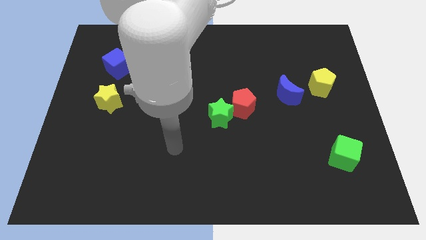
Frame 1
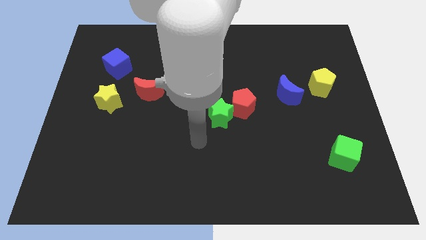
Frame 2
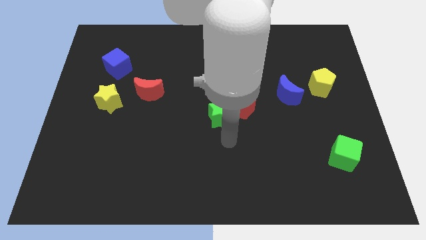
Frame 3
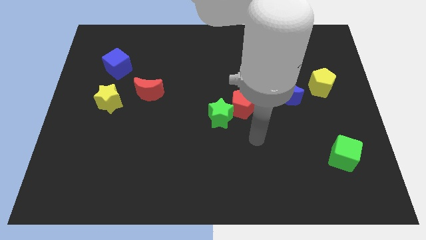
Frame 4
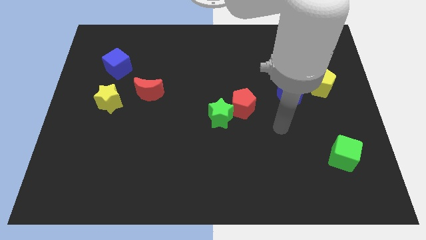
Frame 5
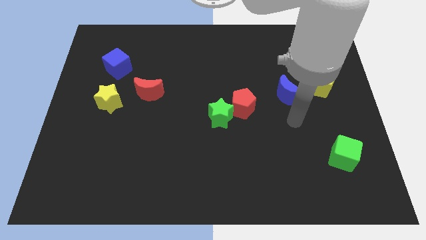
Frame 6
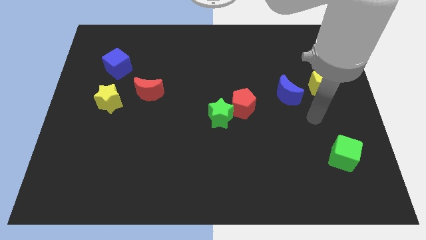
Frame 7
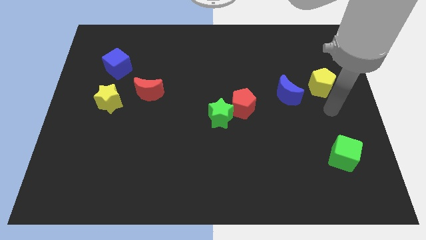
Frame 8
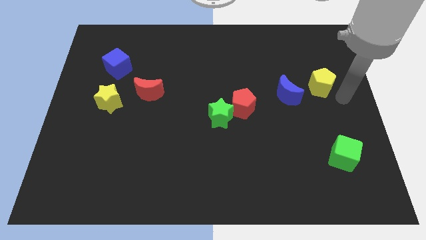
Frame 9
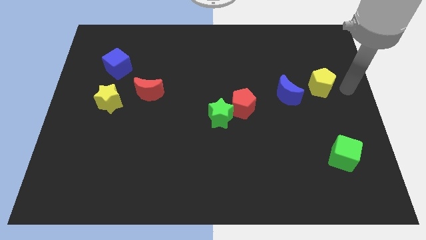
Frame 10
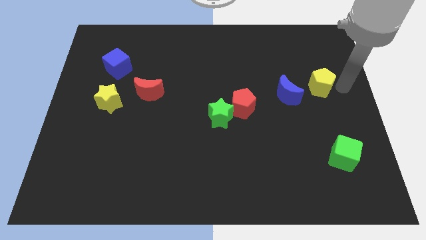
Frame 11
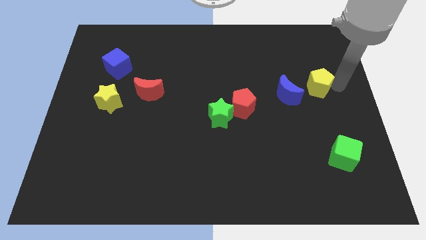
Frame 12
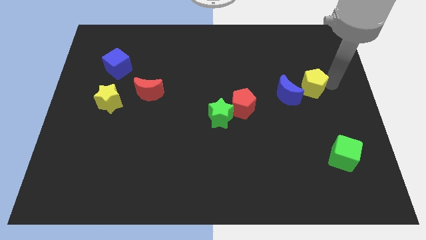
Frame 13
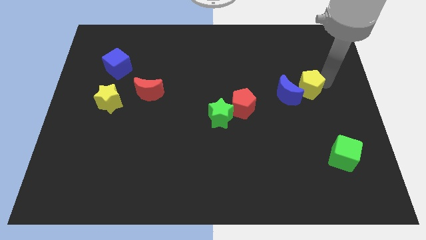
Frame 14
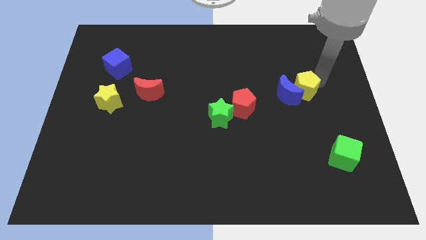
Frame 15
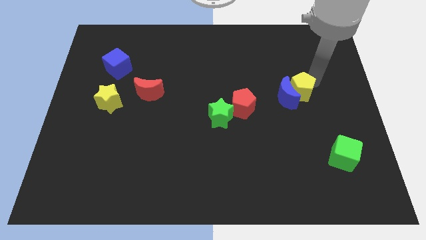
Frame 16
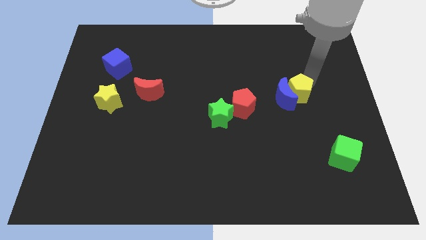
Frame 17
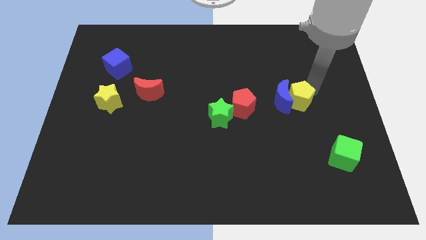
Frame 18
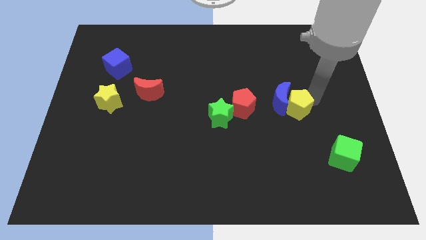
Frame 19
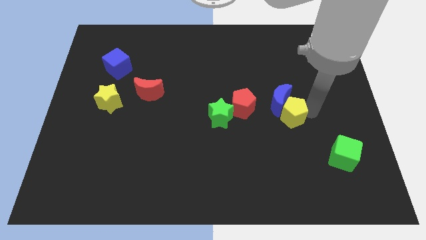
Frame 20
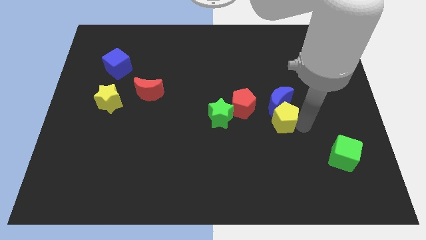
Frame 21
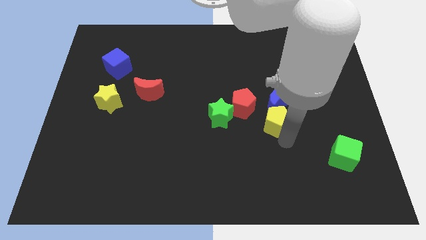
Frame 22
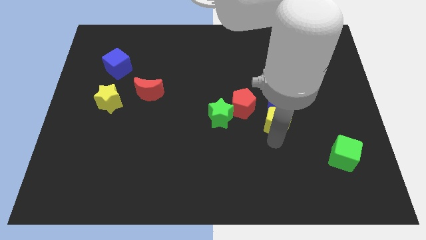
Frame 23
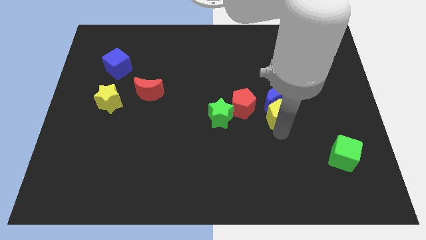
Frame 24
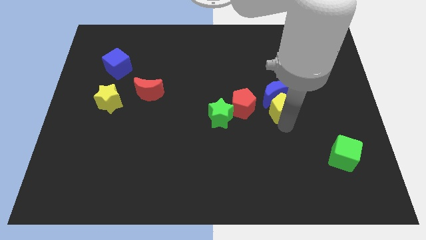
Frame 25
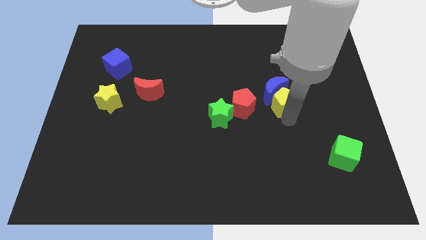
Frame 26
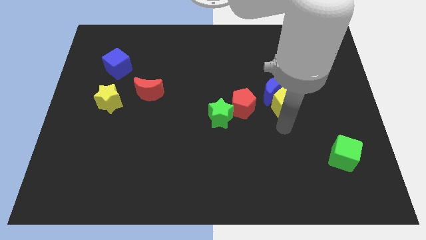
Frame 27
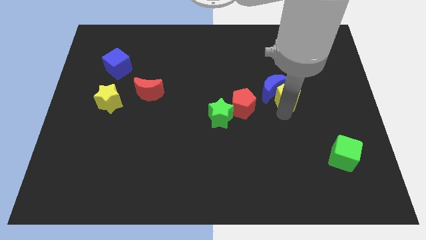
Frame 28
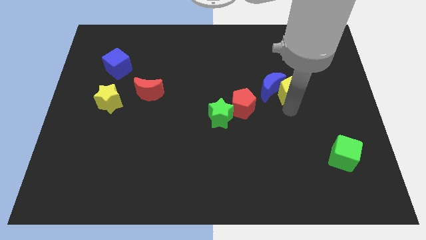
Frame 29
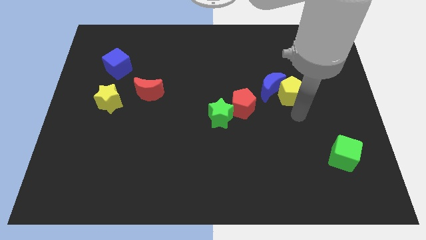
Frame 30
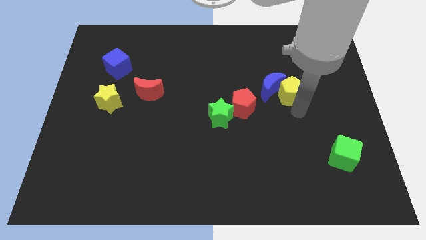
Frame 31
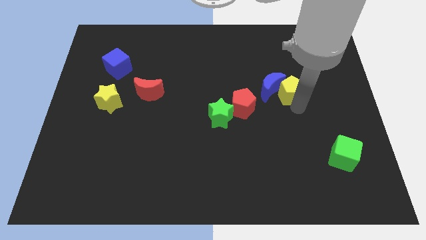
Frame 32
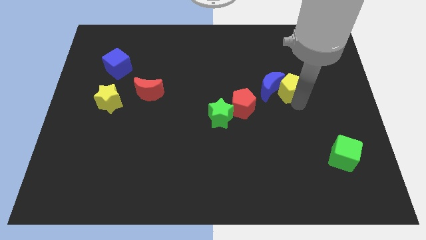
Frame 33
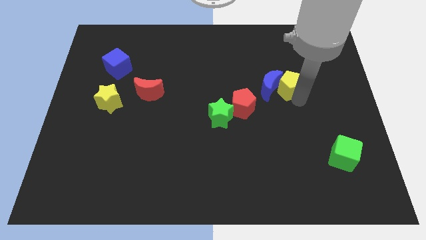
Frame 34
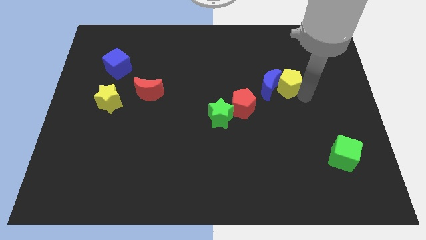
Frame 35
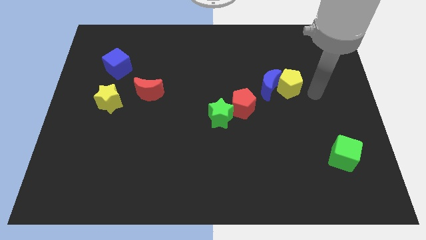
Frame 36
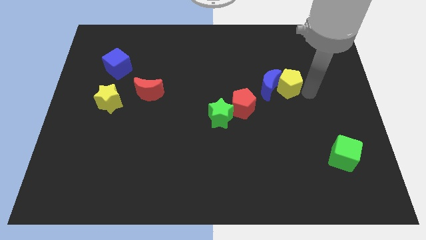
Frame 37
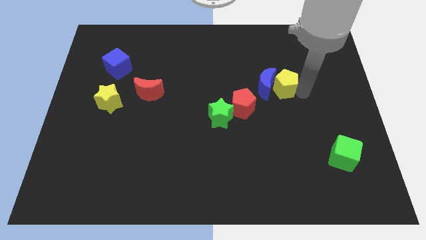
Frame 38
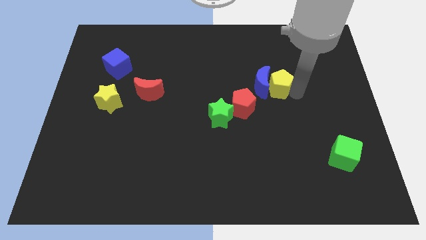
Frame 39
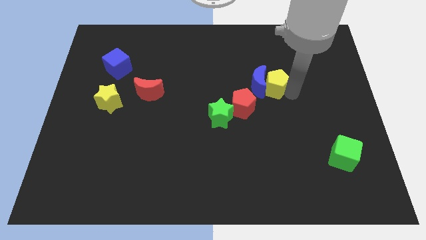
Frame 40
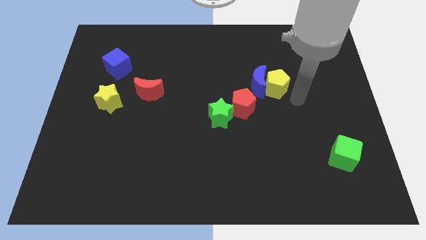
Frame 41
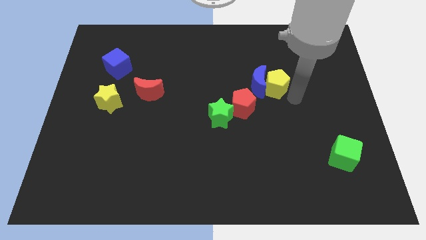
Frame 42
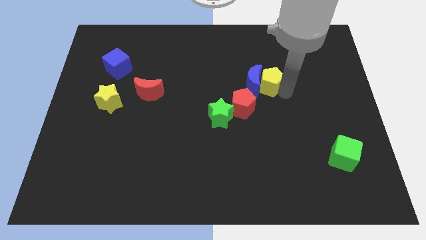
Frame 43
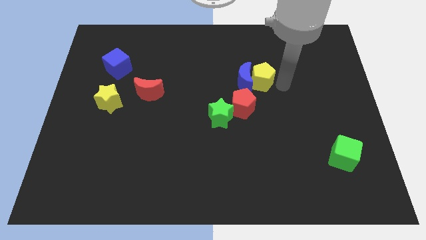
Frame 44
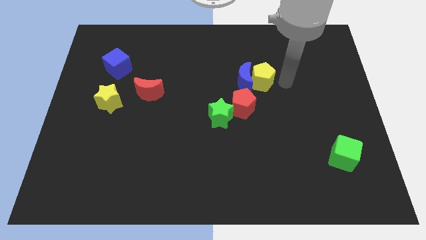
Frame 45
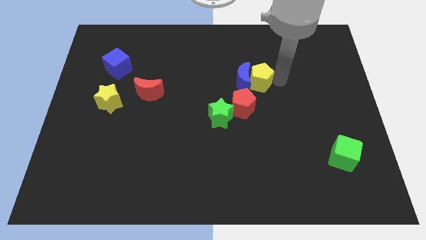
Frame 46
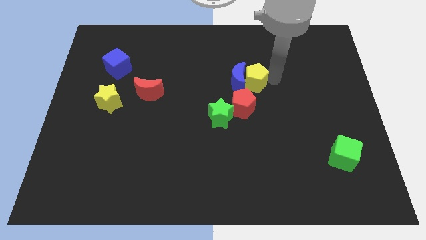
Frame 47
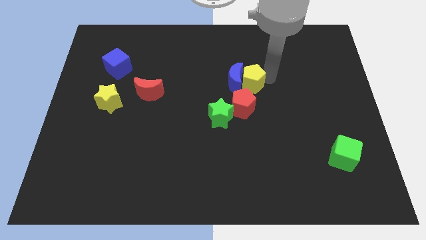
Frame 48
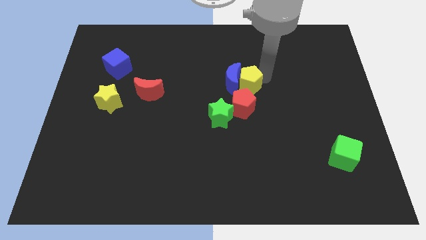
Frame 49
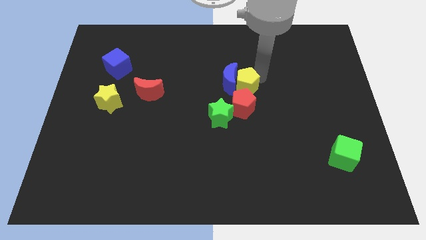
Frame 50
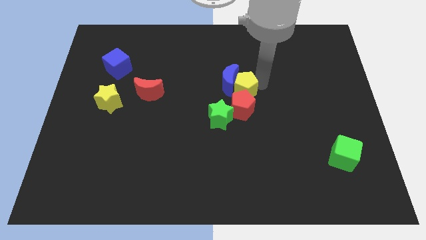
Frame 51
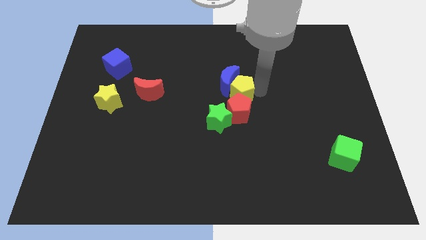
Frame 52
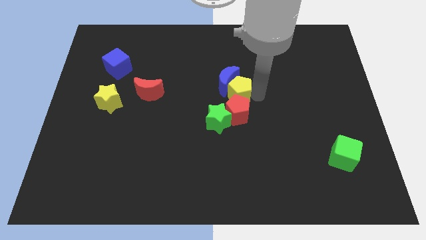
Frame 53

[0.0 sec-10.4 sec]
push the yellow pentagon to the left

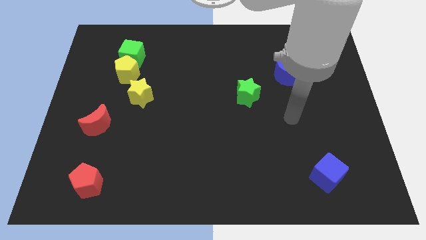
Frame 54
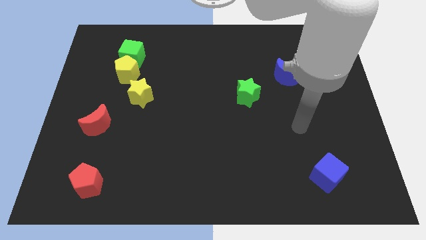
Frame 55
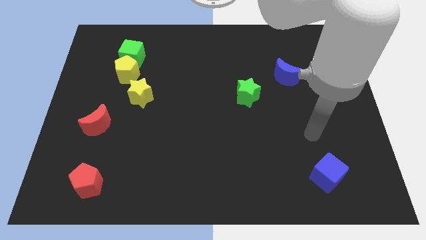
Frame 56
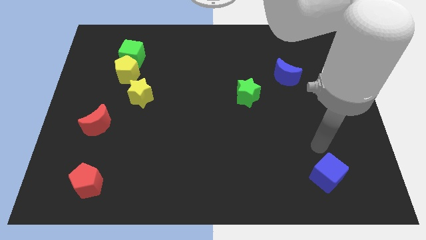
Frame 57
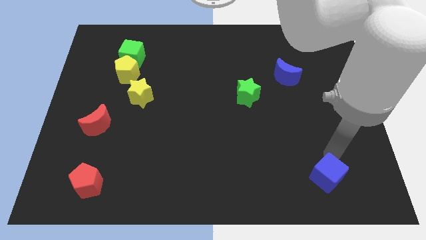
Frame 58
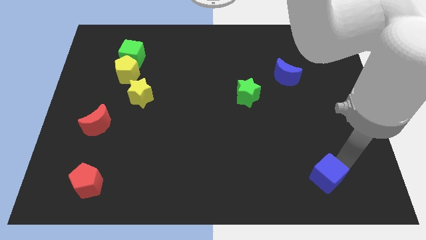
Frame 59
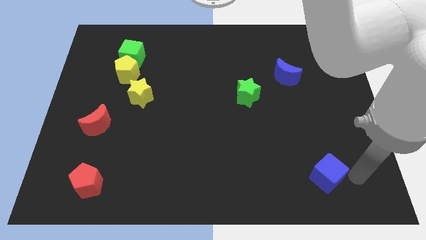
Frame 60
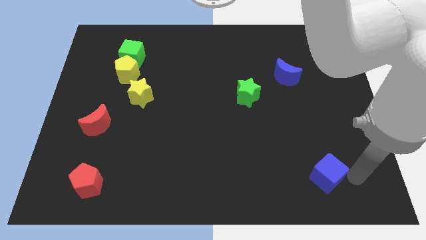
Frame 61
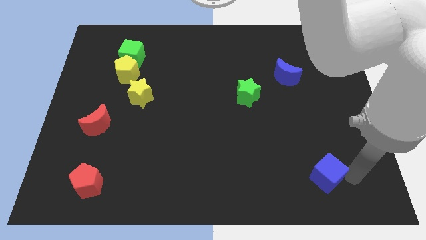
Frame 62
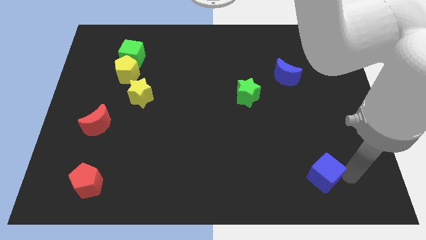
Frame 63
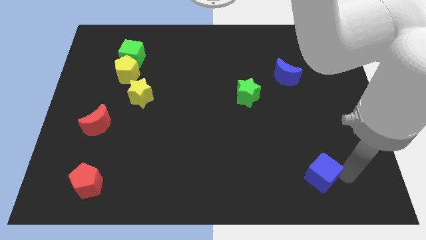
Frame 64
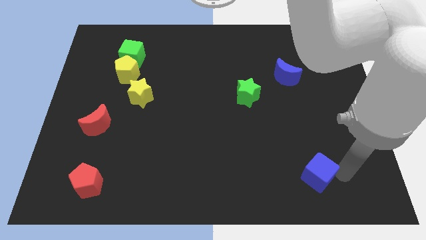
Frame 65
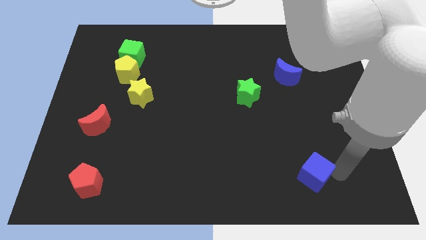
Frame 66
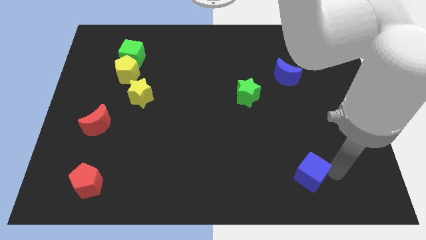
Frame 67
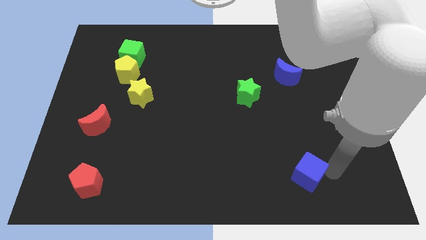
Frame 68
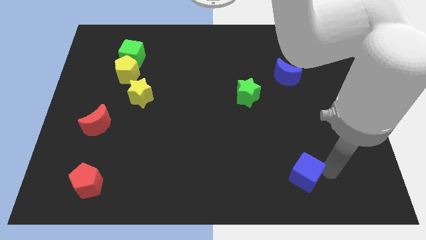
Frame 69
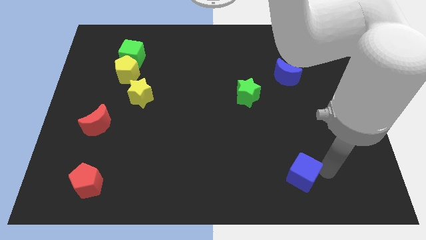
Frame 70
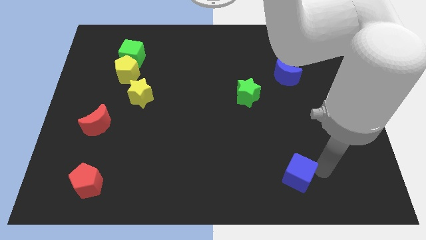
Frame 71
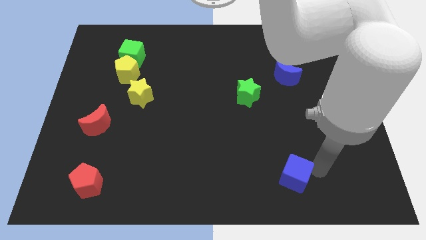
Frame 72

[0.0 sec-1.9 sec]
move the blue cube to the left a bit

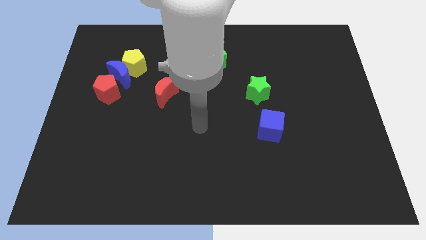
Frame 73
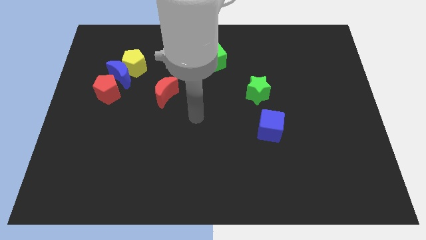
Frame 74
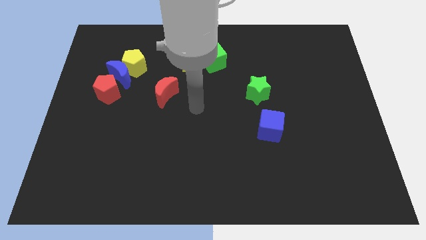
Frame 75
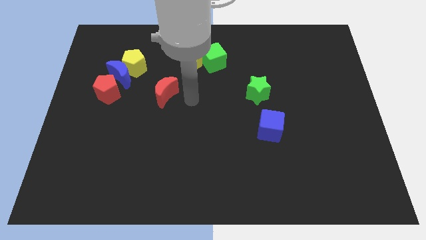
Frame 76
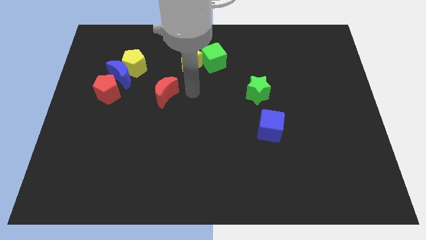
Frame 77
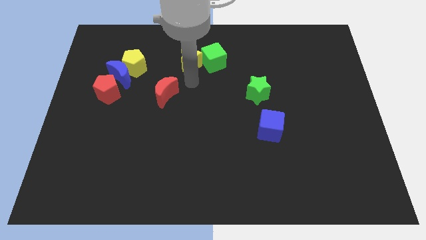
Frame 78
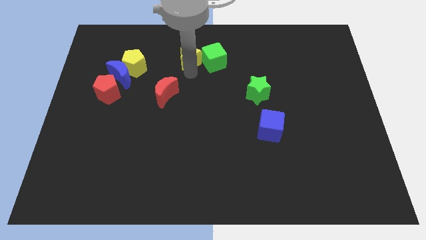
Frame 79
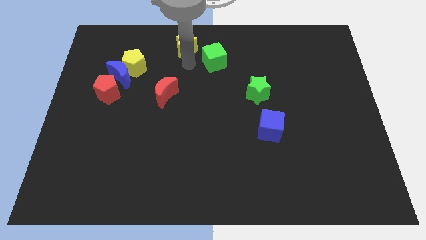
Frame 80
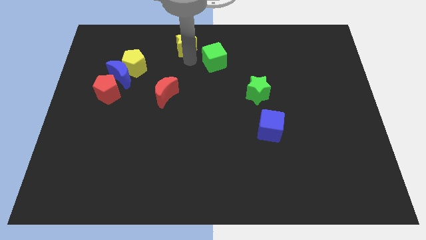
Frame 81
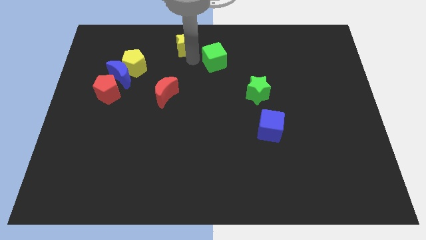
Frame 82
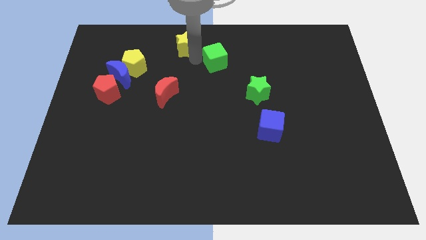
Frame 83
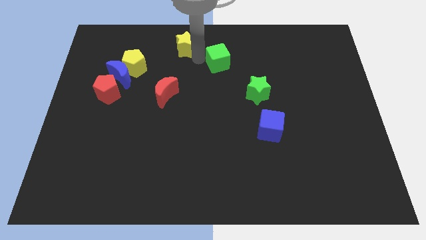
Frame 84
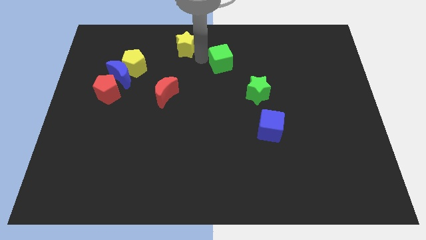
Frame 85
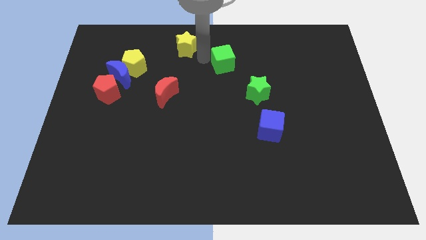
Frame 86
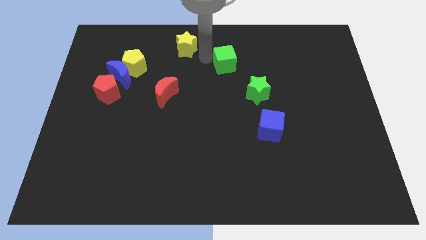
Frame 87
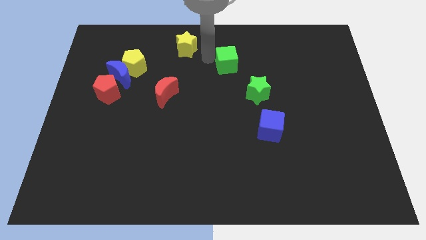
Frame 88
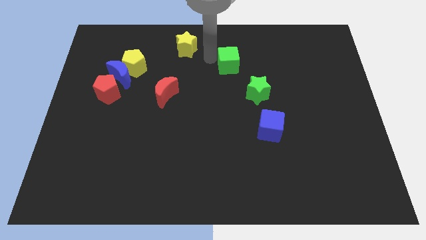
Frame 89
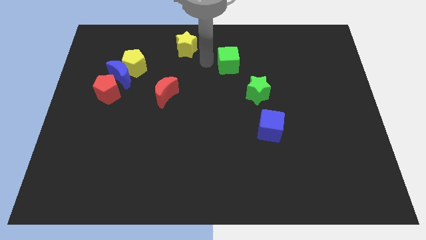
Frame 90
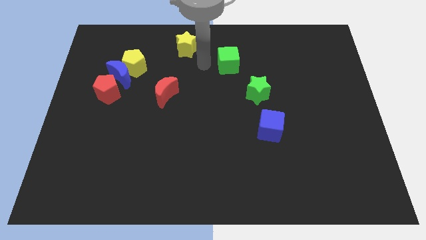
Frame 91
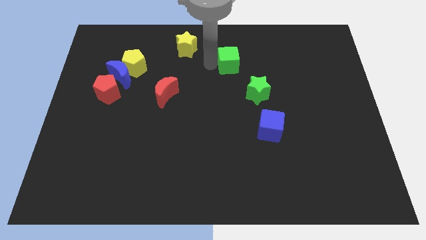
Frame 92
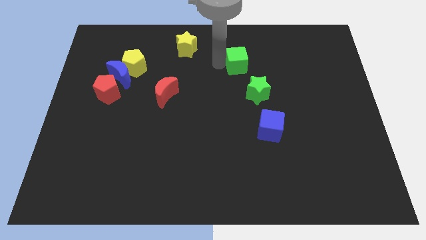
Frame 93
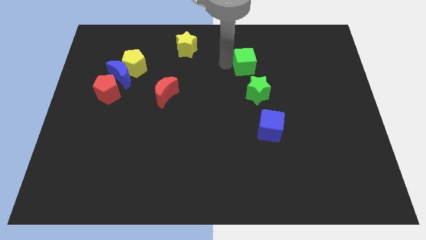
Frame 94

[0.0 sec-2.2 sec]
push the green cube to the right somewhat
